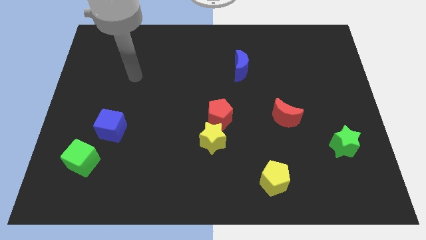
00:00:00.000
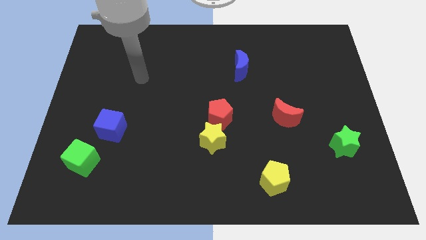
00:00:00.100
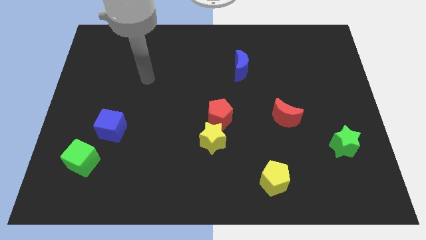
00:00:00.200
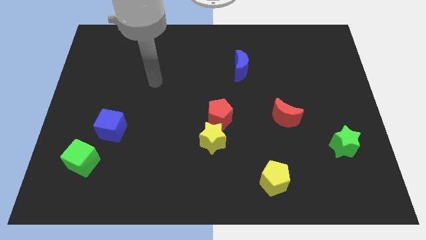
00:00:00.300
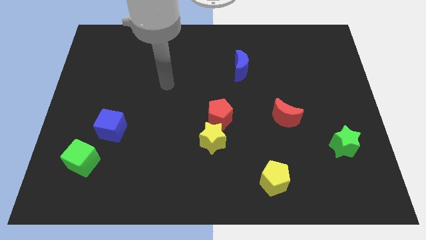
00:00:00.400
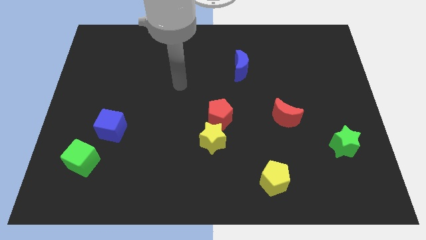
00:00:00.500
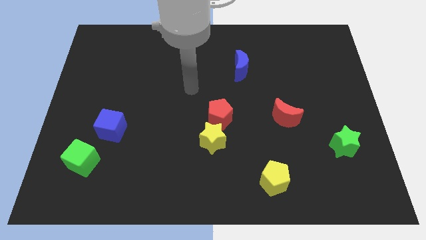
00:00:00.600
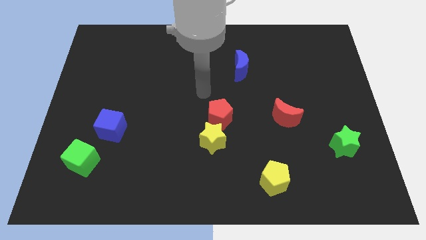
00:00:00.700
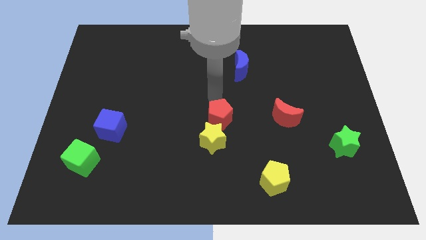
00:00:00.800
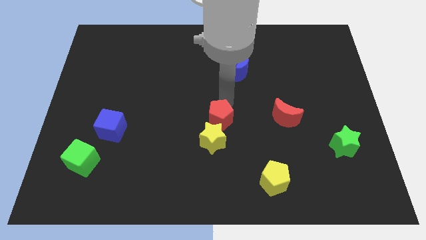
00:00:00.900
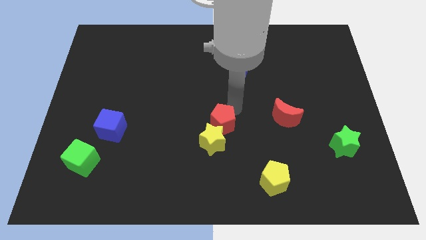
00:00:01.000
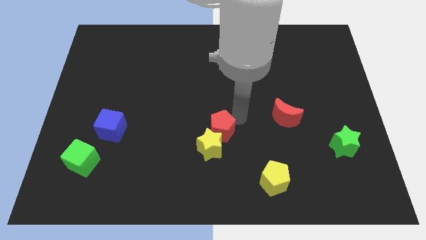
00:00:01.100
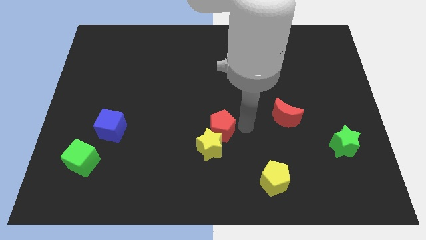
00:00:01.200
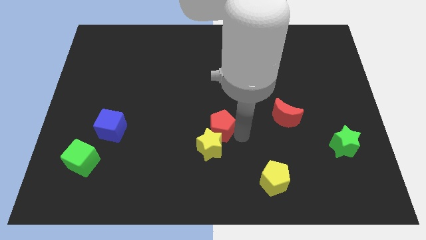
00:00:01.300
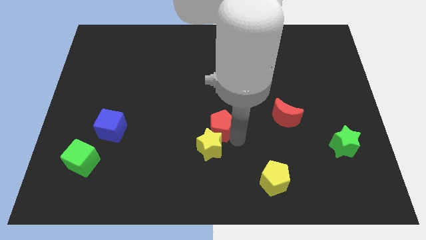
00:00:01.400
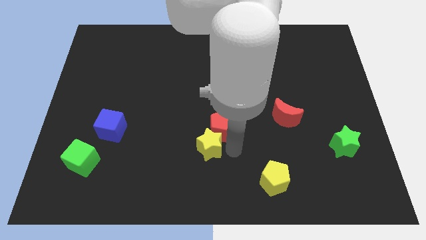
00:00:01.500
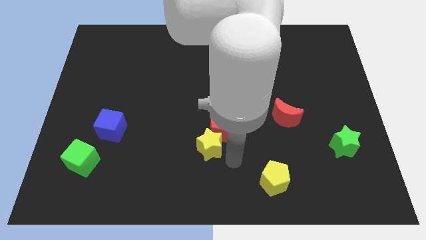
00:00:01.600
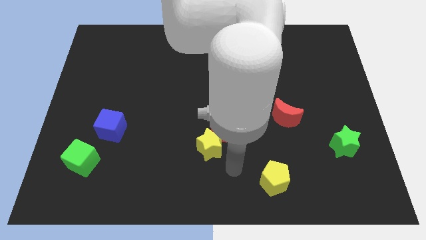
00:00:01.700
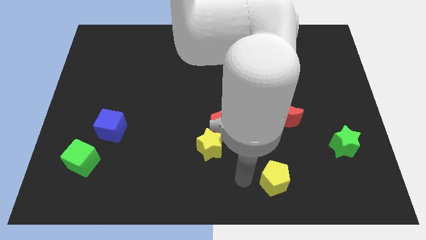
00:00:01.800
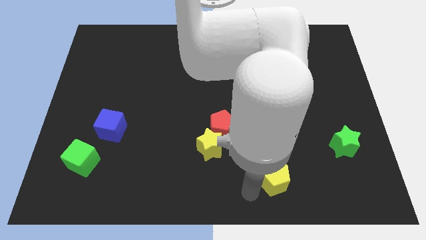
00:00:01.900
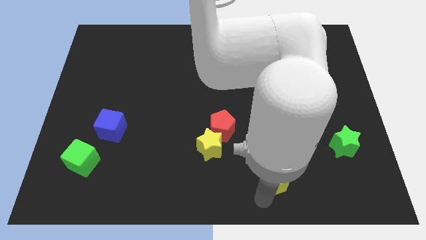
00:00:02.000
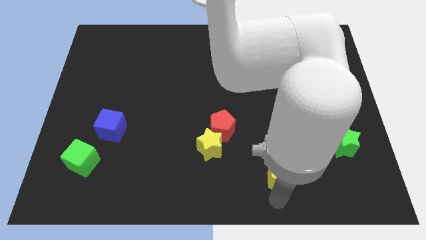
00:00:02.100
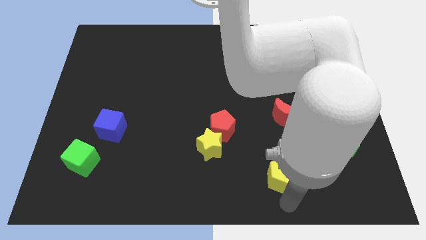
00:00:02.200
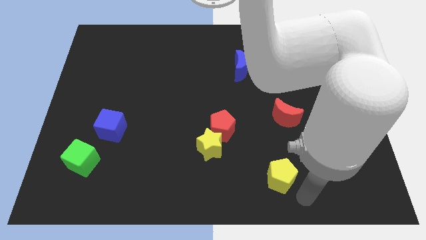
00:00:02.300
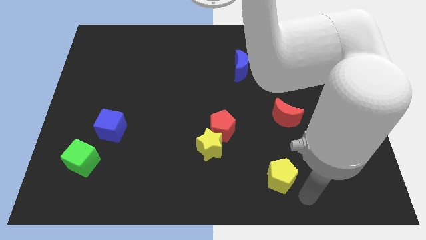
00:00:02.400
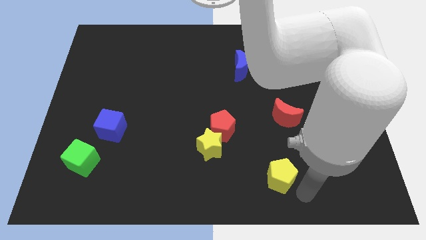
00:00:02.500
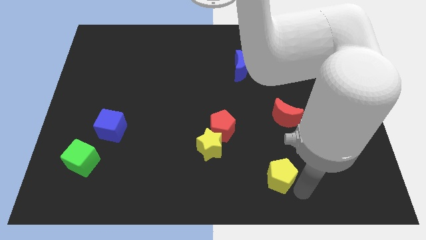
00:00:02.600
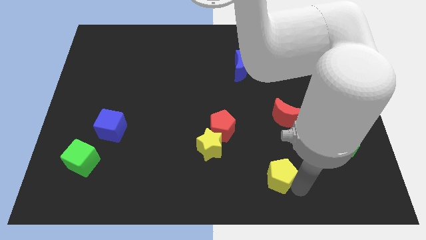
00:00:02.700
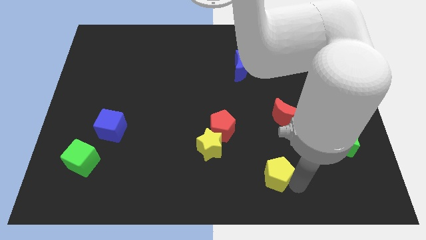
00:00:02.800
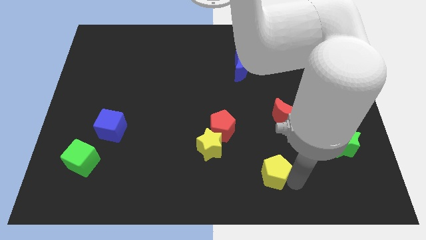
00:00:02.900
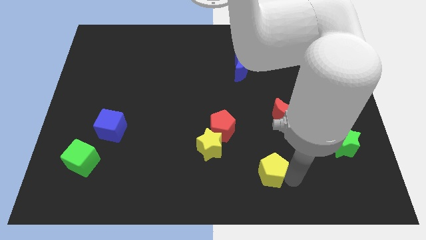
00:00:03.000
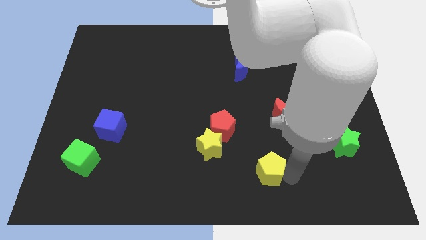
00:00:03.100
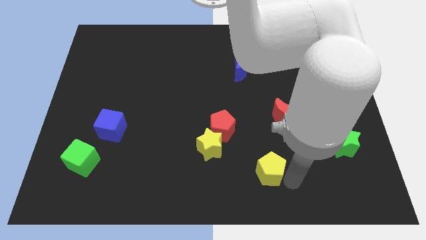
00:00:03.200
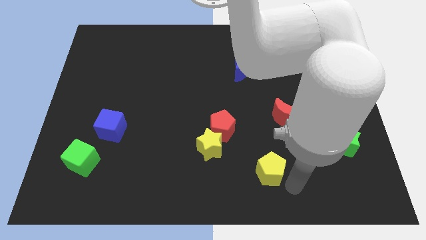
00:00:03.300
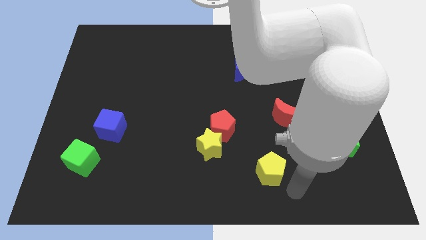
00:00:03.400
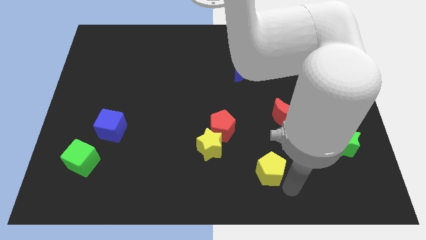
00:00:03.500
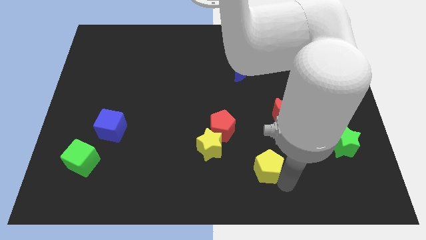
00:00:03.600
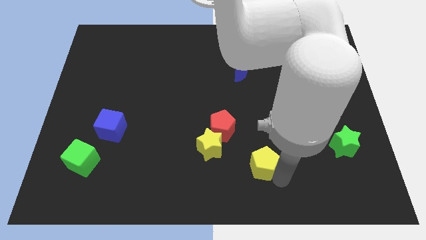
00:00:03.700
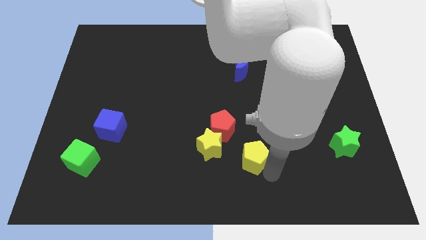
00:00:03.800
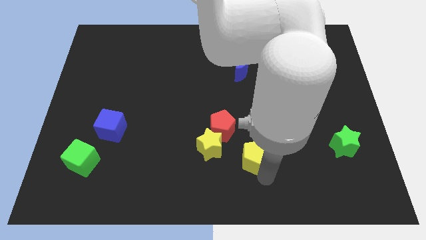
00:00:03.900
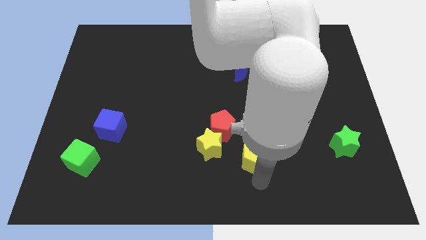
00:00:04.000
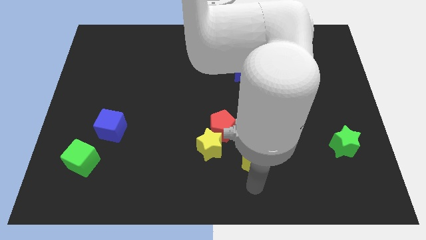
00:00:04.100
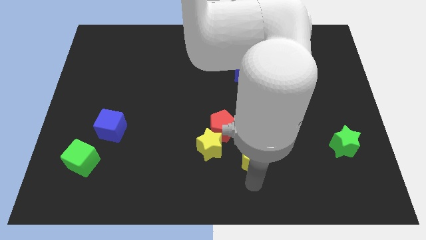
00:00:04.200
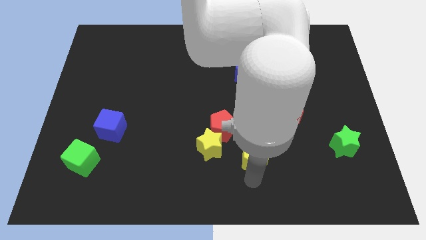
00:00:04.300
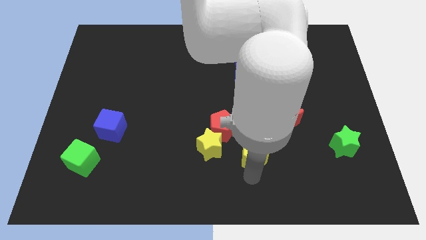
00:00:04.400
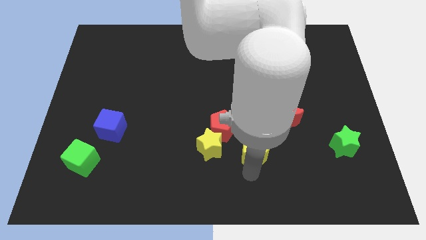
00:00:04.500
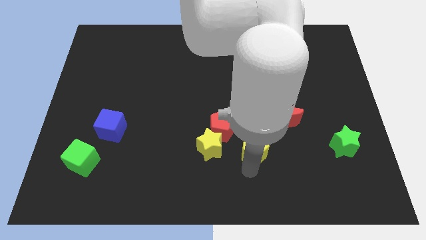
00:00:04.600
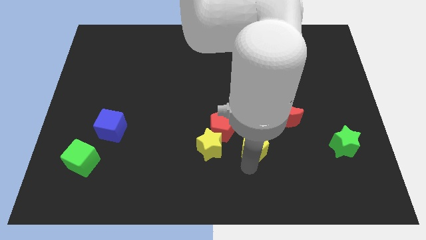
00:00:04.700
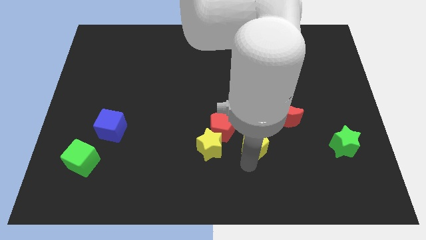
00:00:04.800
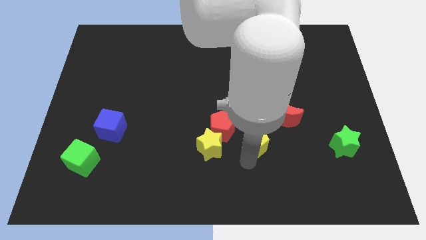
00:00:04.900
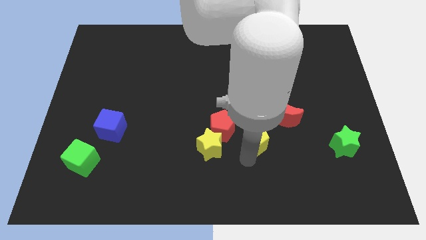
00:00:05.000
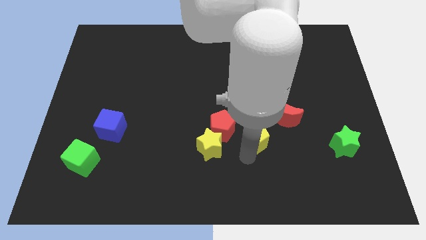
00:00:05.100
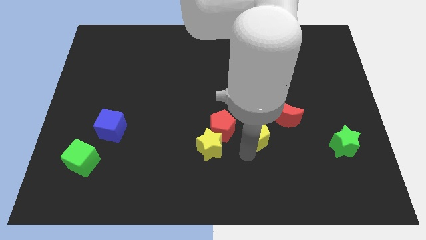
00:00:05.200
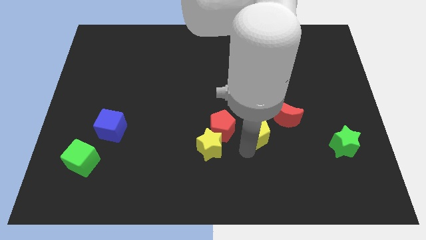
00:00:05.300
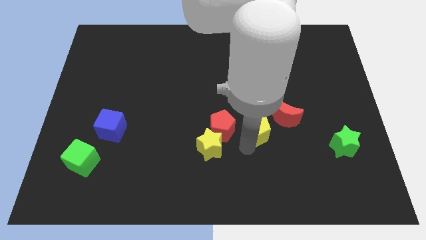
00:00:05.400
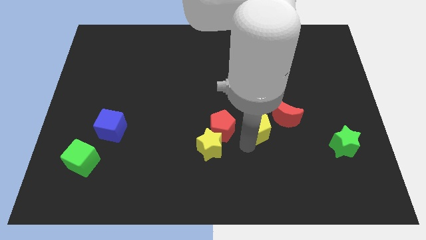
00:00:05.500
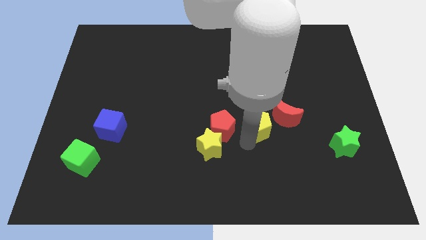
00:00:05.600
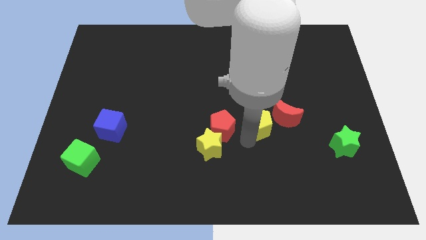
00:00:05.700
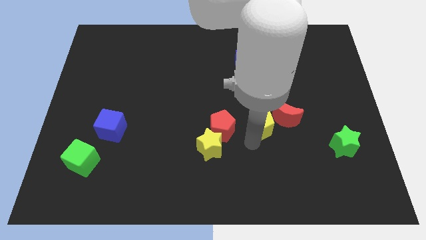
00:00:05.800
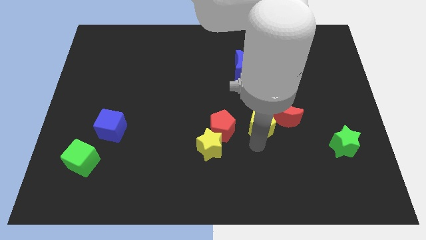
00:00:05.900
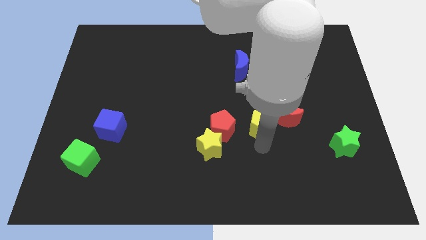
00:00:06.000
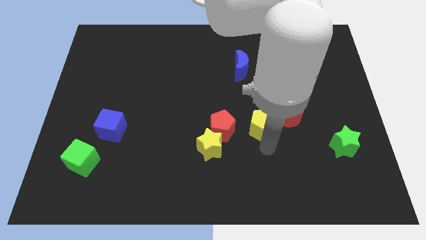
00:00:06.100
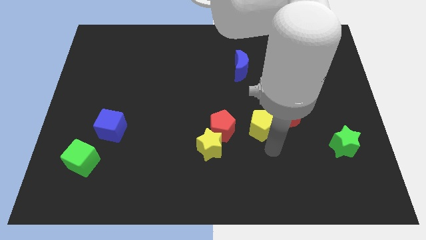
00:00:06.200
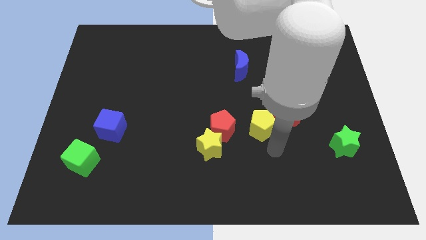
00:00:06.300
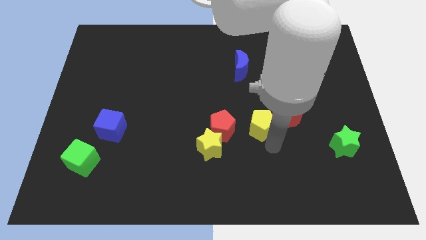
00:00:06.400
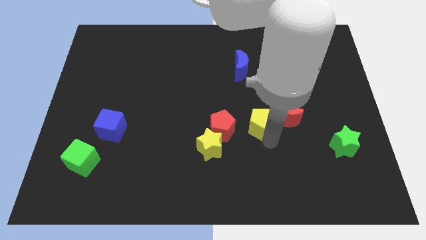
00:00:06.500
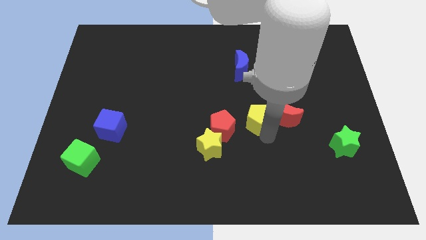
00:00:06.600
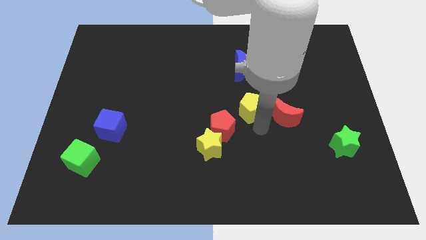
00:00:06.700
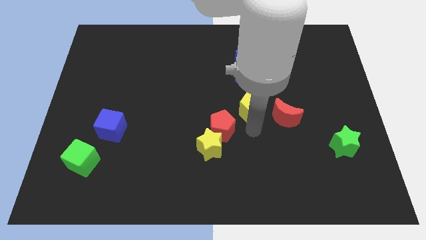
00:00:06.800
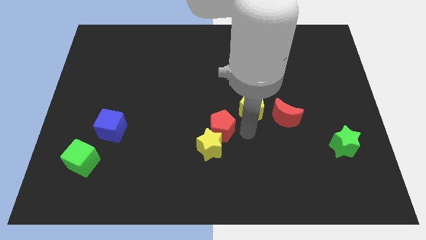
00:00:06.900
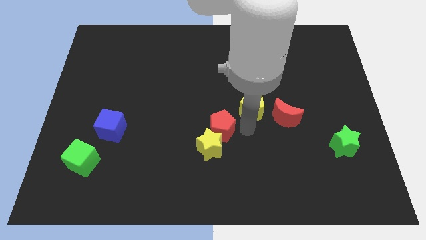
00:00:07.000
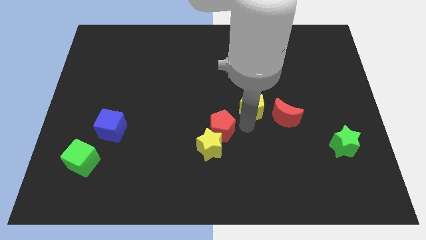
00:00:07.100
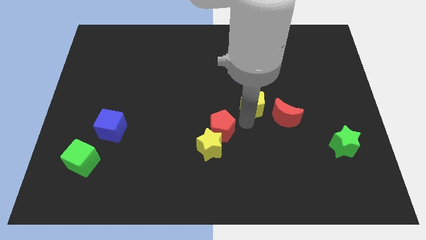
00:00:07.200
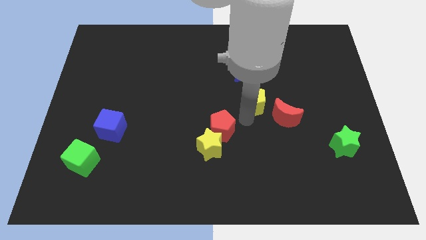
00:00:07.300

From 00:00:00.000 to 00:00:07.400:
slide the yellow pentagon upwards

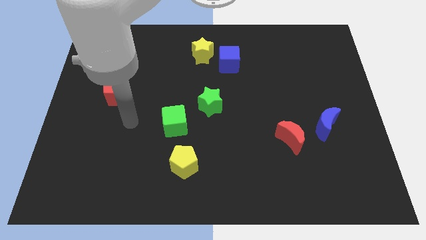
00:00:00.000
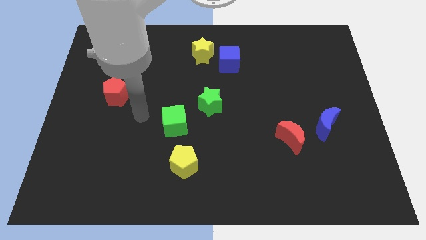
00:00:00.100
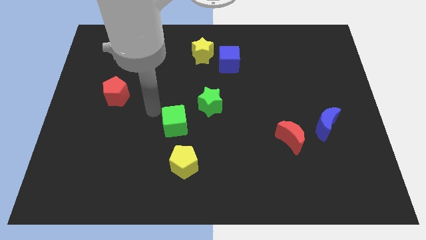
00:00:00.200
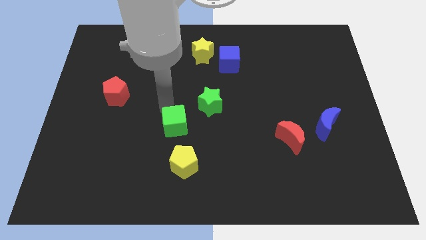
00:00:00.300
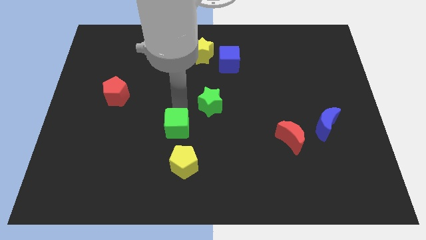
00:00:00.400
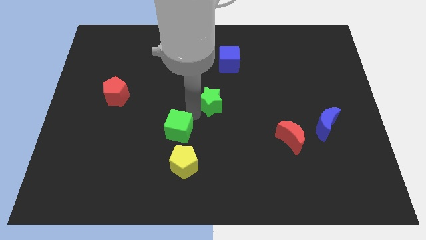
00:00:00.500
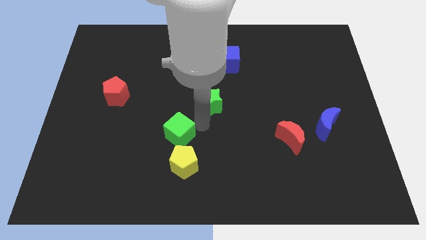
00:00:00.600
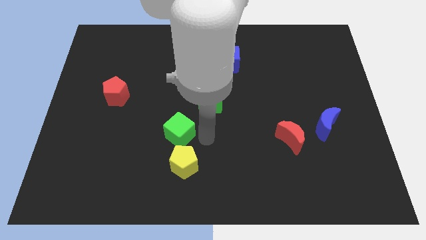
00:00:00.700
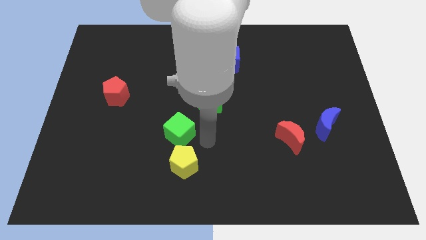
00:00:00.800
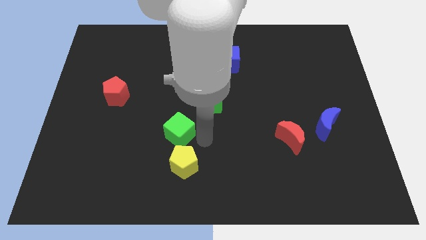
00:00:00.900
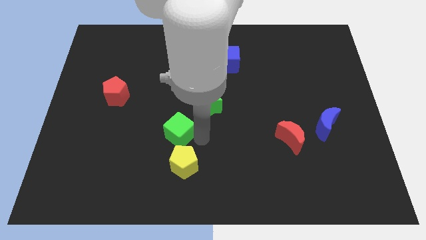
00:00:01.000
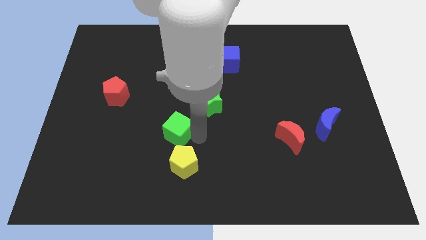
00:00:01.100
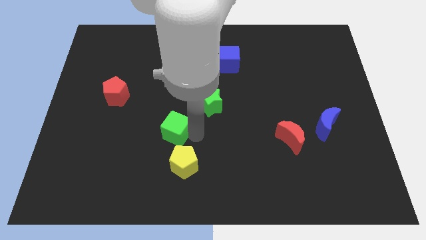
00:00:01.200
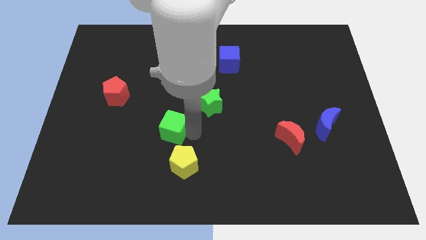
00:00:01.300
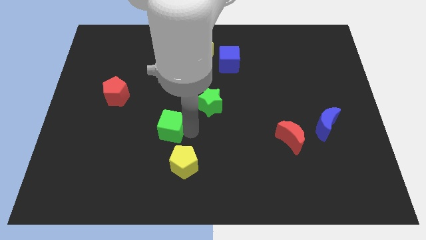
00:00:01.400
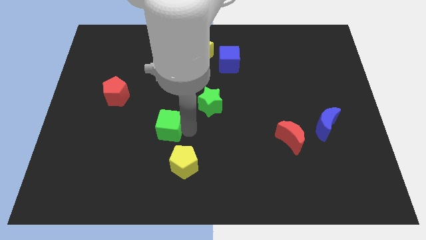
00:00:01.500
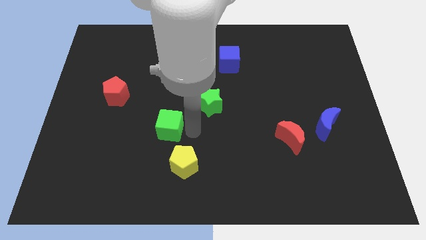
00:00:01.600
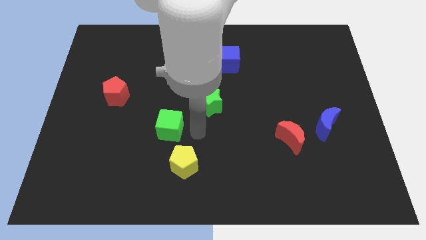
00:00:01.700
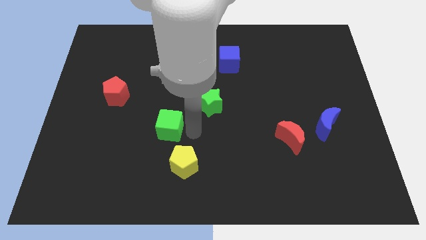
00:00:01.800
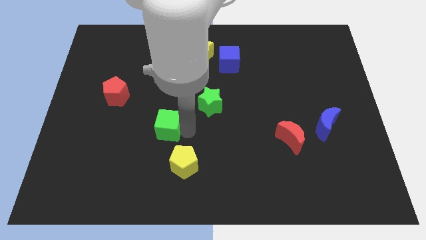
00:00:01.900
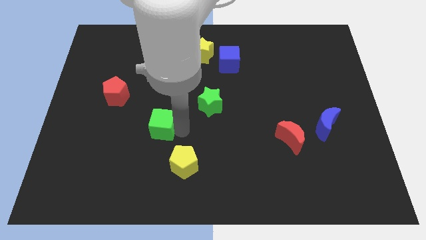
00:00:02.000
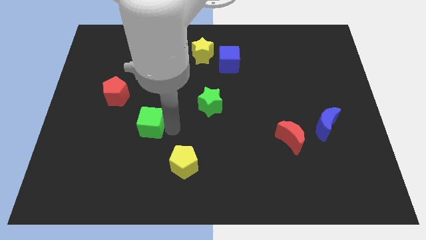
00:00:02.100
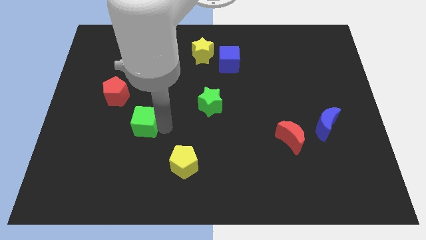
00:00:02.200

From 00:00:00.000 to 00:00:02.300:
move the green cube to the left slightly
